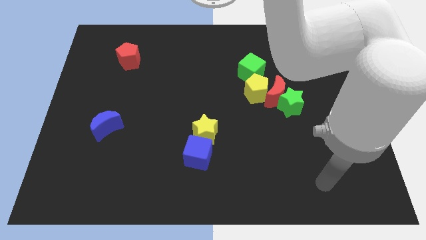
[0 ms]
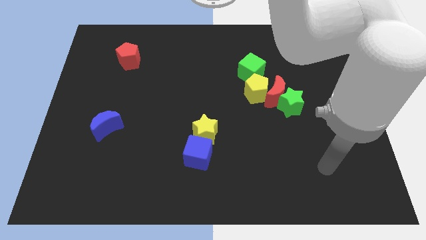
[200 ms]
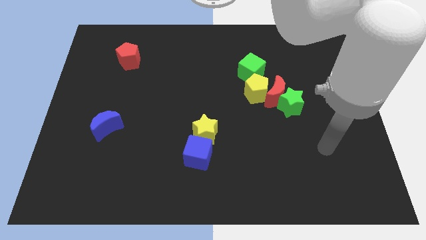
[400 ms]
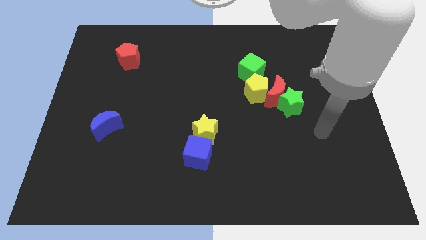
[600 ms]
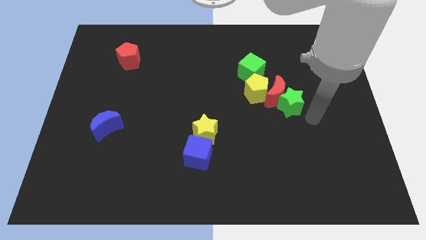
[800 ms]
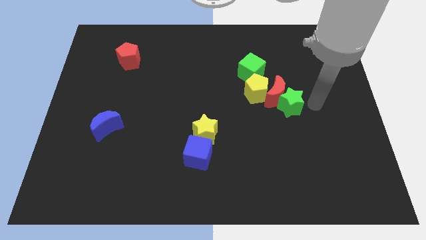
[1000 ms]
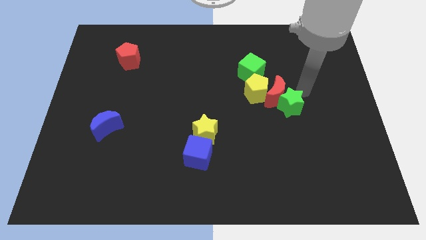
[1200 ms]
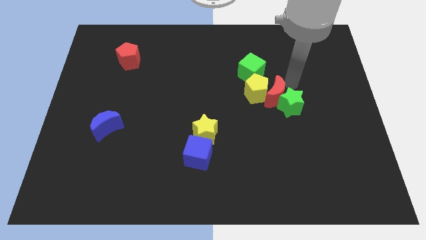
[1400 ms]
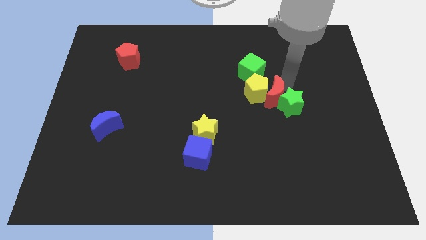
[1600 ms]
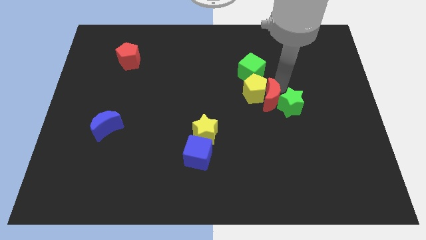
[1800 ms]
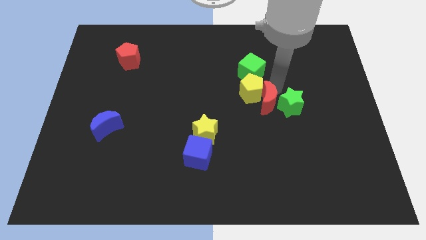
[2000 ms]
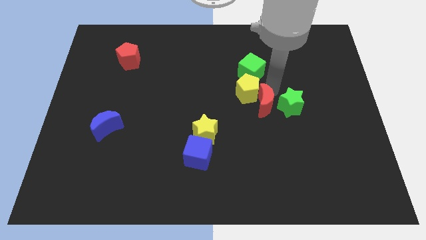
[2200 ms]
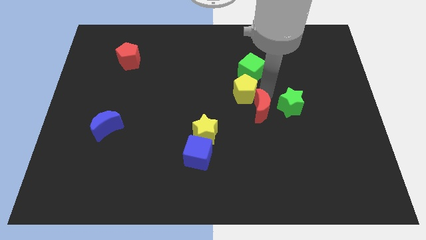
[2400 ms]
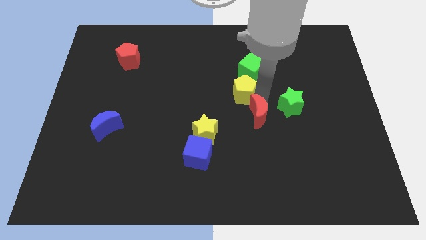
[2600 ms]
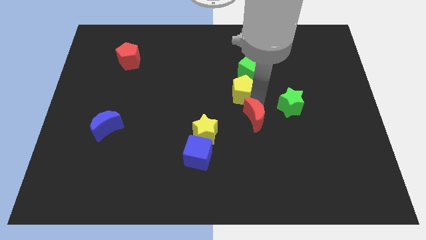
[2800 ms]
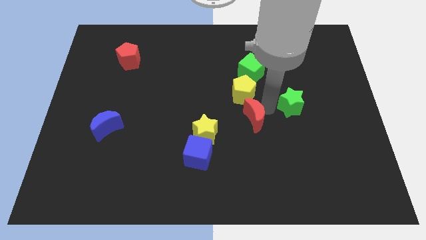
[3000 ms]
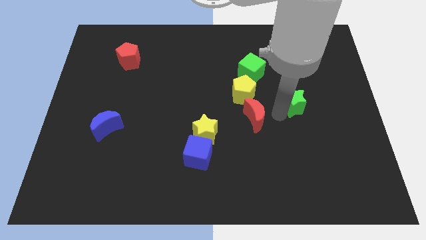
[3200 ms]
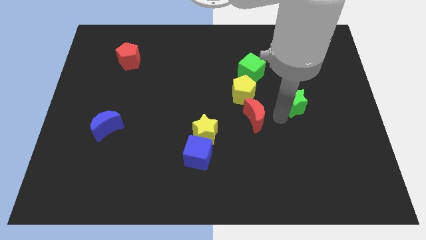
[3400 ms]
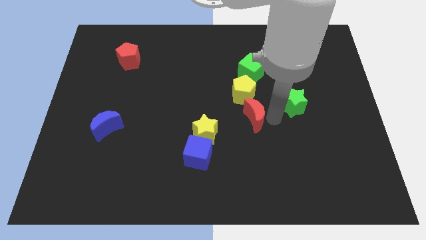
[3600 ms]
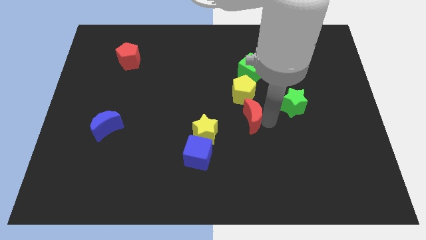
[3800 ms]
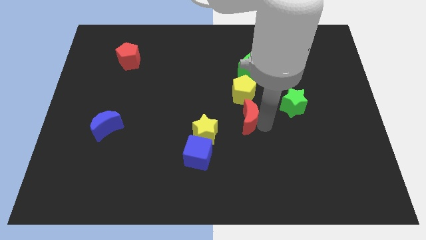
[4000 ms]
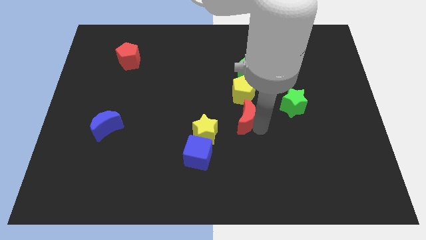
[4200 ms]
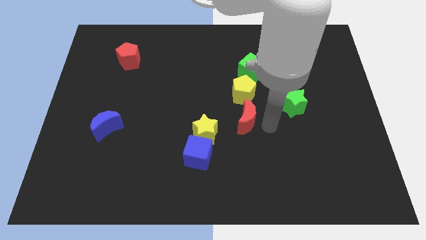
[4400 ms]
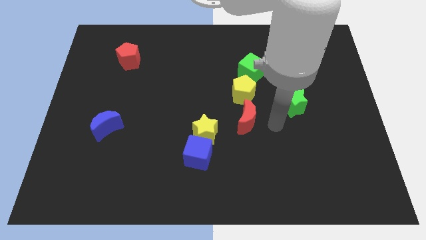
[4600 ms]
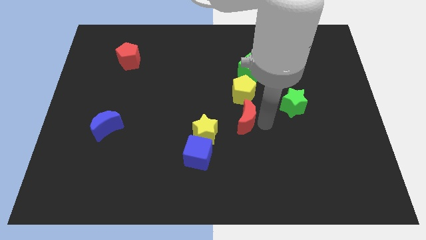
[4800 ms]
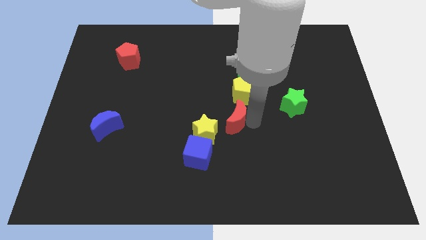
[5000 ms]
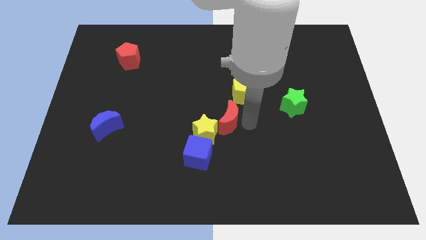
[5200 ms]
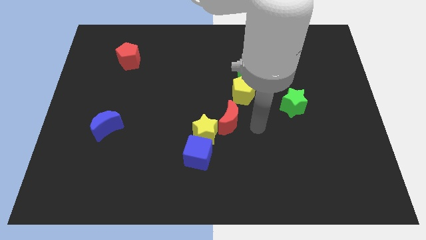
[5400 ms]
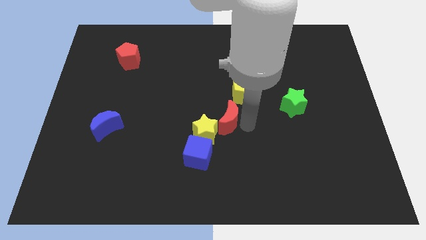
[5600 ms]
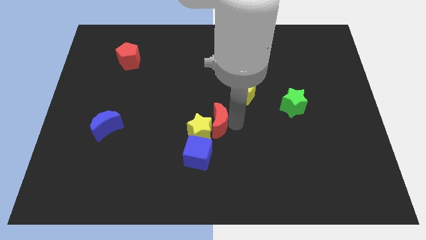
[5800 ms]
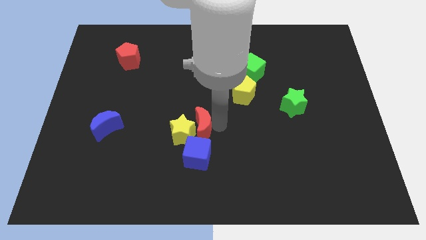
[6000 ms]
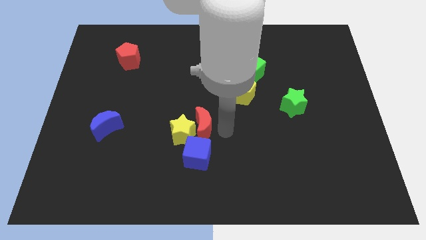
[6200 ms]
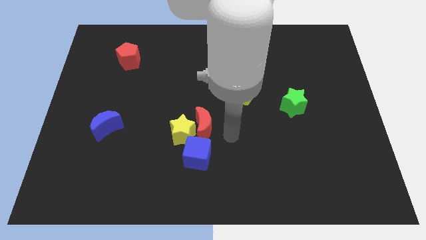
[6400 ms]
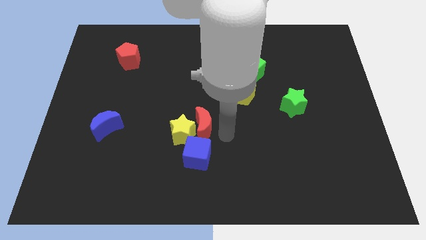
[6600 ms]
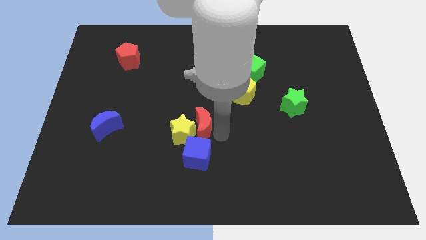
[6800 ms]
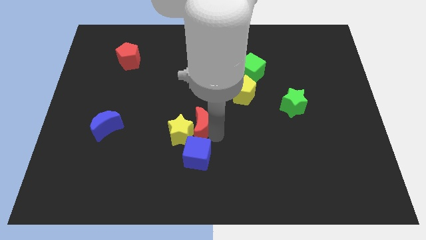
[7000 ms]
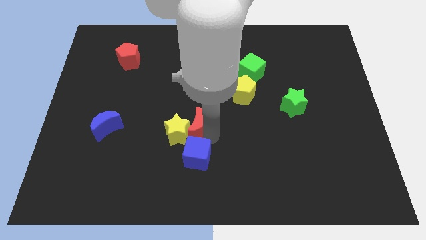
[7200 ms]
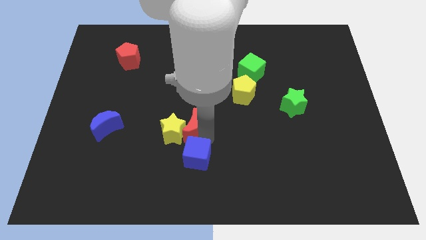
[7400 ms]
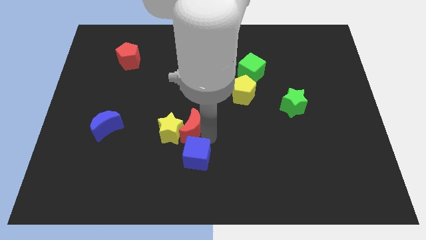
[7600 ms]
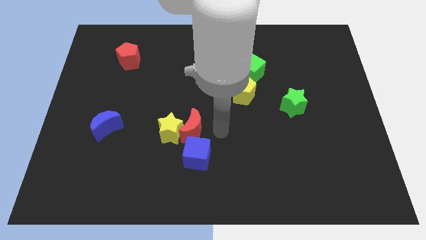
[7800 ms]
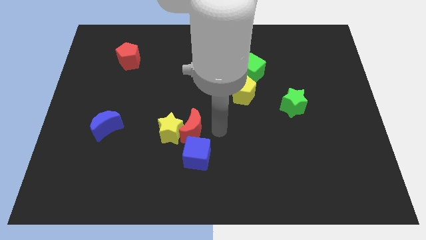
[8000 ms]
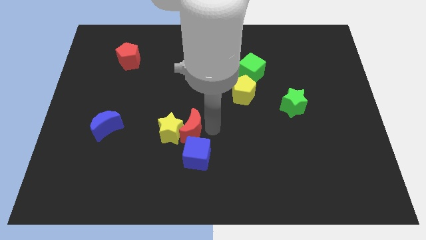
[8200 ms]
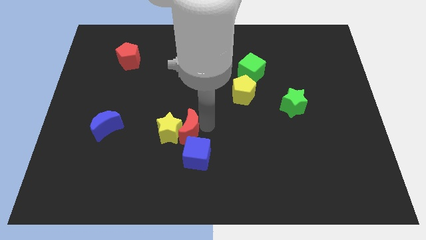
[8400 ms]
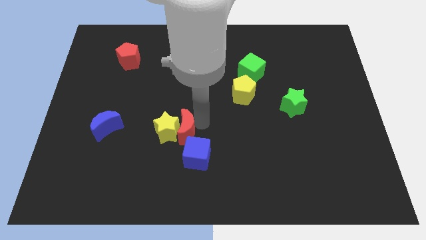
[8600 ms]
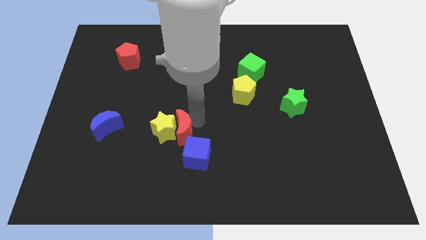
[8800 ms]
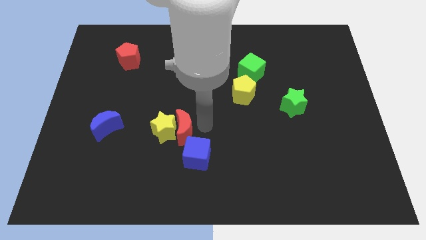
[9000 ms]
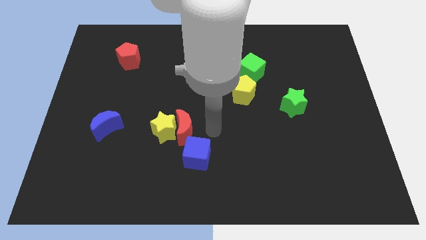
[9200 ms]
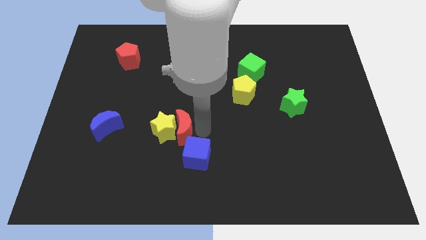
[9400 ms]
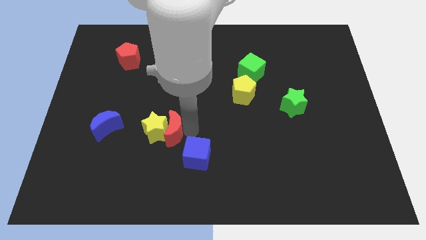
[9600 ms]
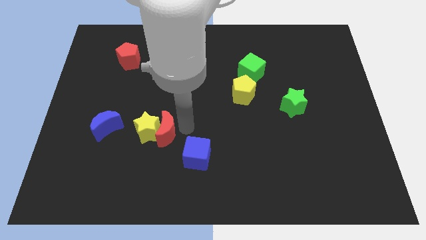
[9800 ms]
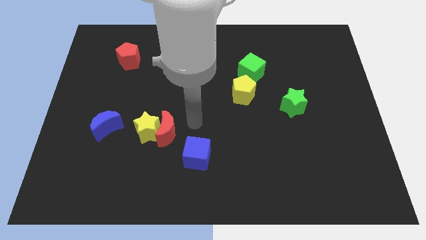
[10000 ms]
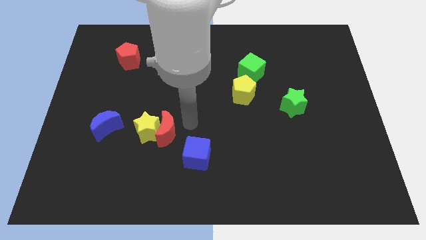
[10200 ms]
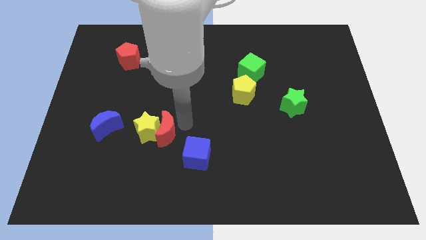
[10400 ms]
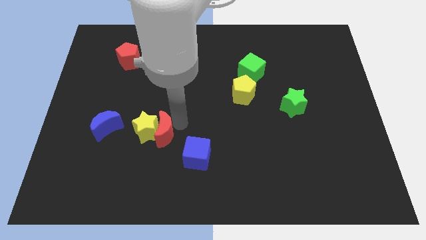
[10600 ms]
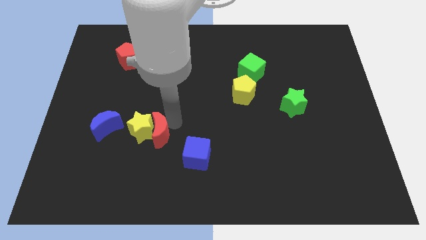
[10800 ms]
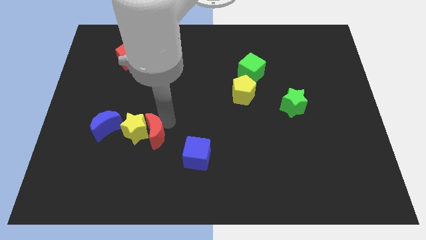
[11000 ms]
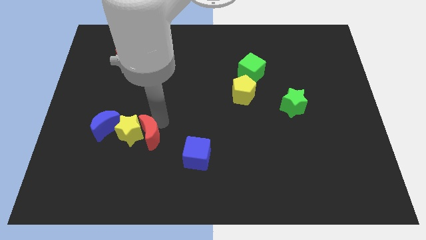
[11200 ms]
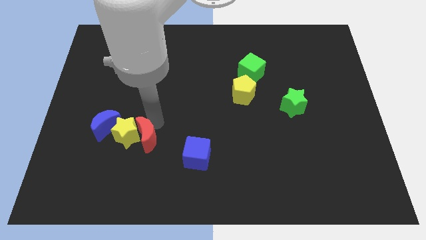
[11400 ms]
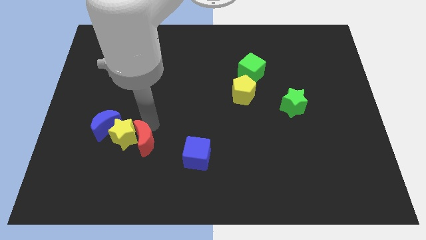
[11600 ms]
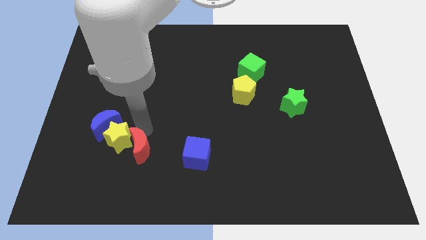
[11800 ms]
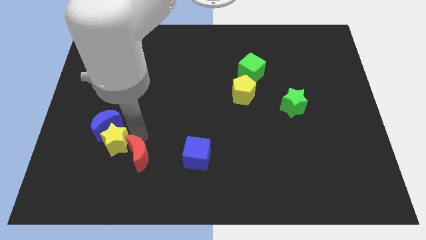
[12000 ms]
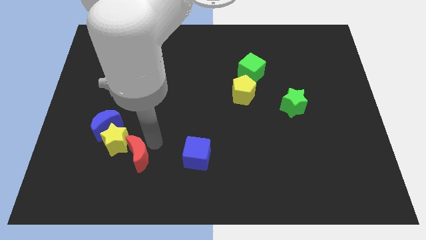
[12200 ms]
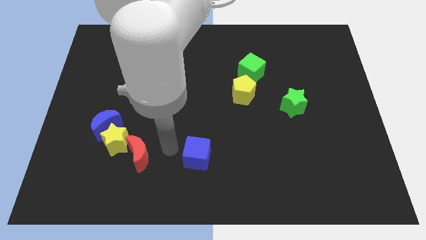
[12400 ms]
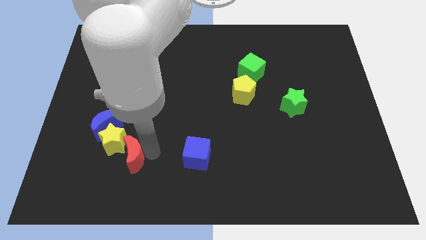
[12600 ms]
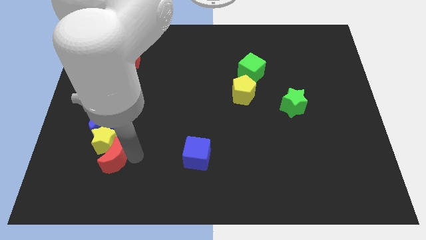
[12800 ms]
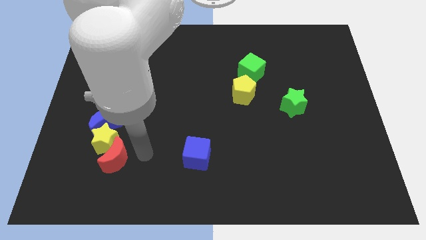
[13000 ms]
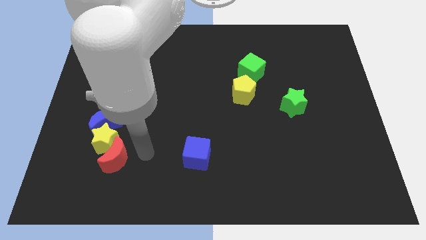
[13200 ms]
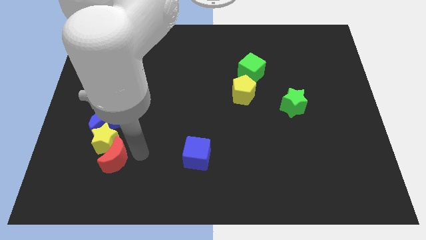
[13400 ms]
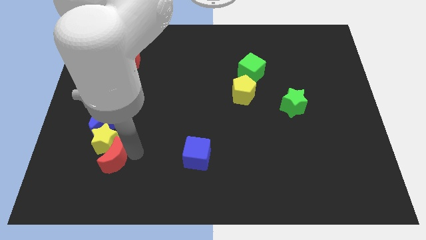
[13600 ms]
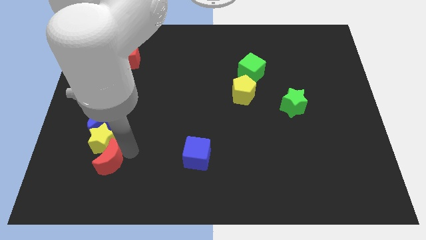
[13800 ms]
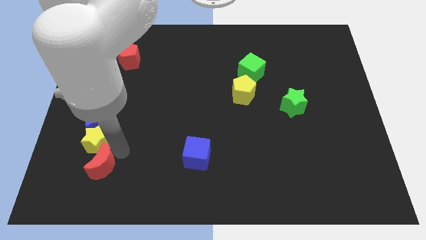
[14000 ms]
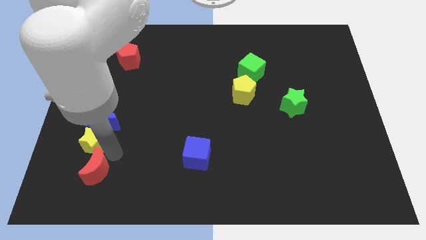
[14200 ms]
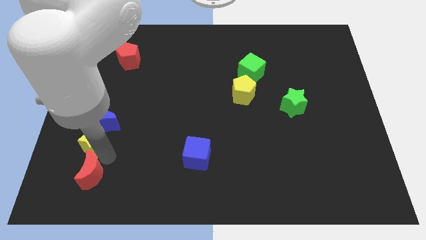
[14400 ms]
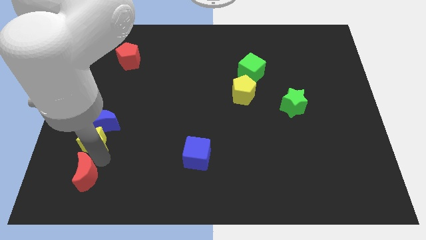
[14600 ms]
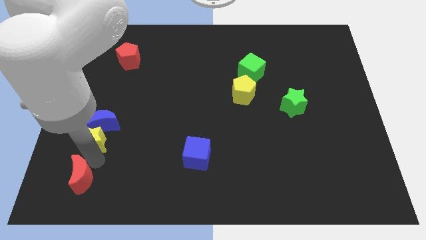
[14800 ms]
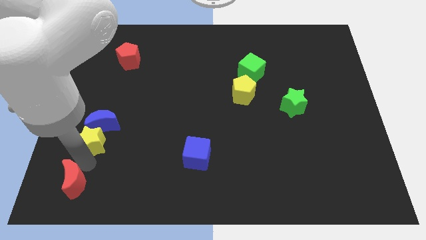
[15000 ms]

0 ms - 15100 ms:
slide the red moon to the lower left corner
